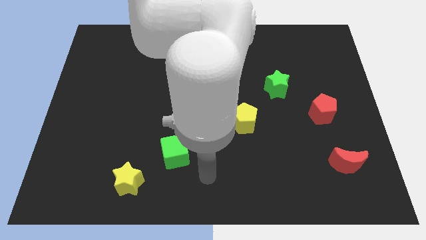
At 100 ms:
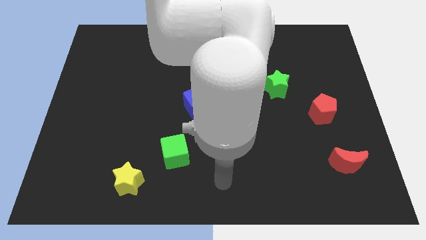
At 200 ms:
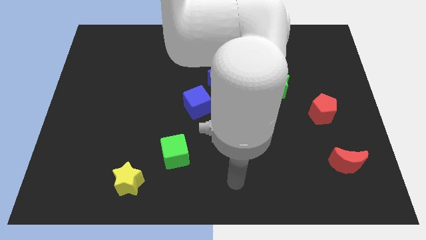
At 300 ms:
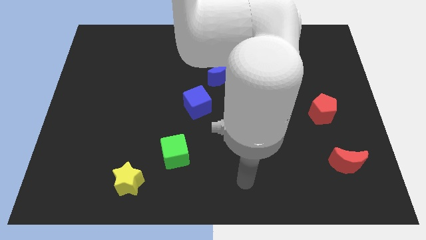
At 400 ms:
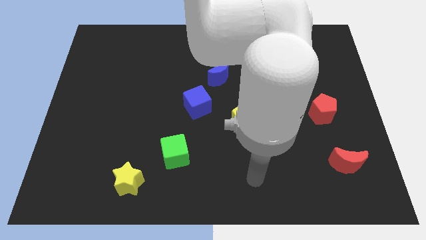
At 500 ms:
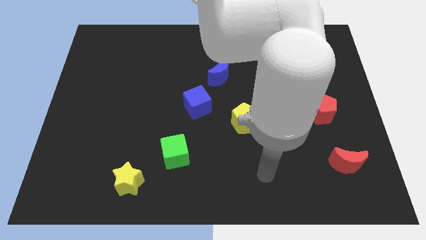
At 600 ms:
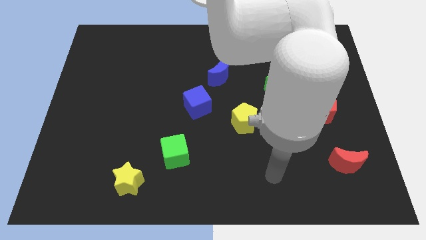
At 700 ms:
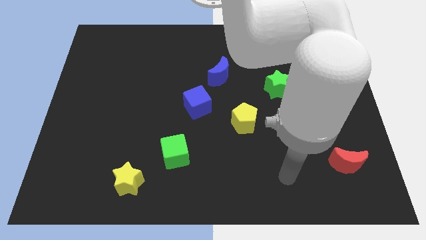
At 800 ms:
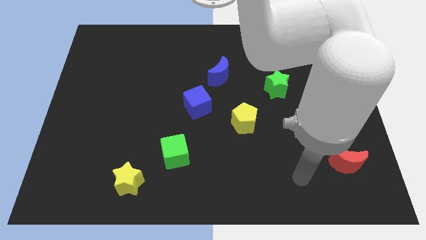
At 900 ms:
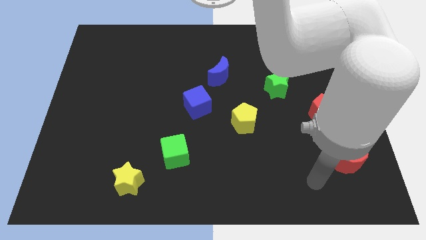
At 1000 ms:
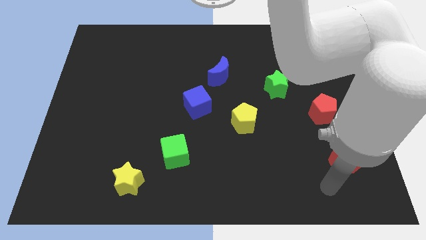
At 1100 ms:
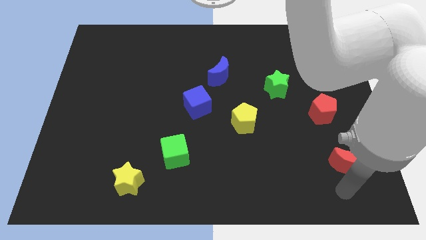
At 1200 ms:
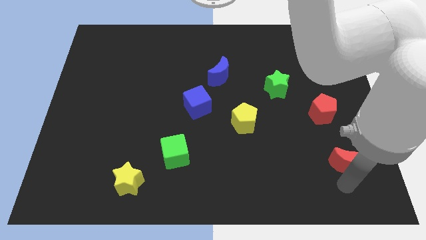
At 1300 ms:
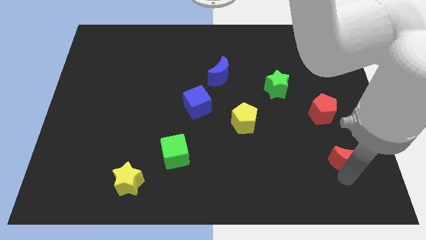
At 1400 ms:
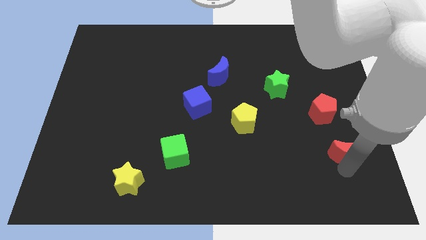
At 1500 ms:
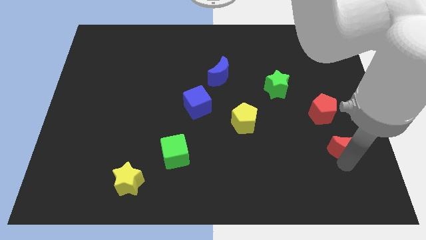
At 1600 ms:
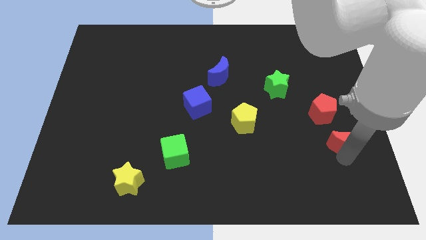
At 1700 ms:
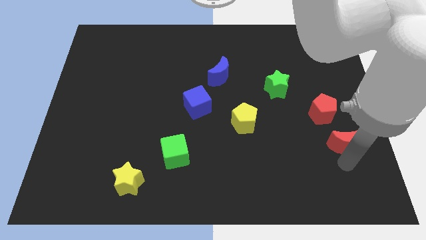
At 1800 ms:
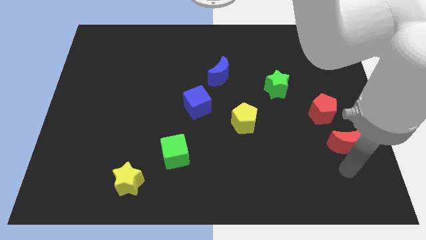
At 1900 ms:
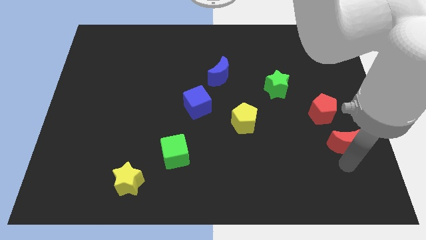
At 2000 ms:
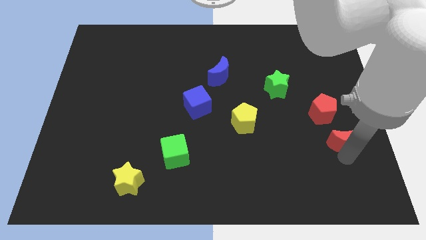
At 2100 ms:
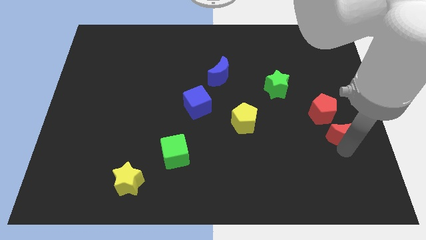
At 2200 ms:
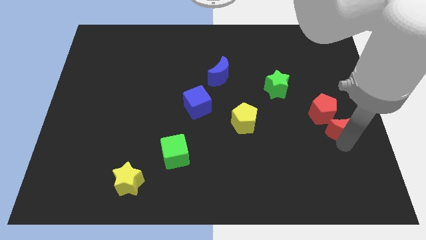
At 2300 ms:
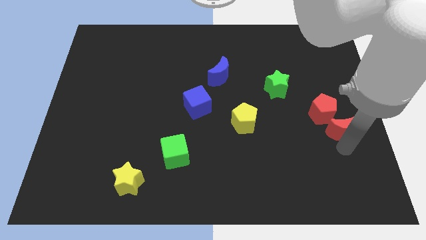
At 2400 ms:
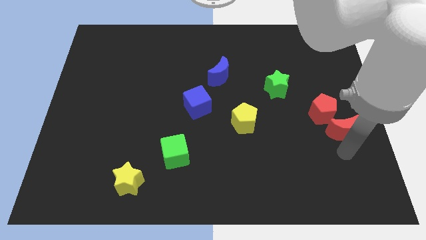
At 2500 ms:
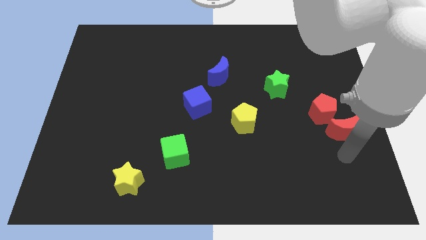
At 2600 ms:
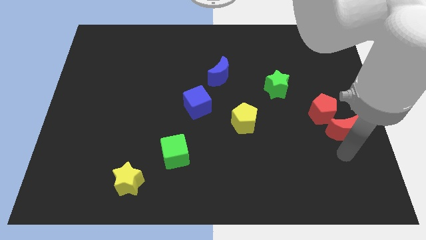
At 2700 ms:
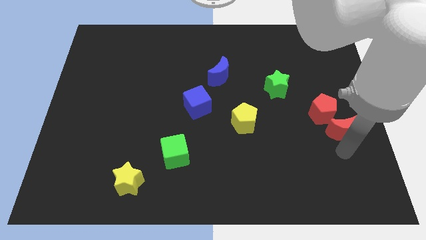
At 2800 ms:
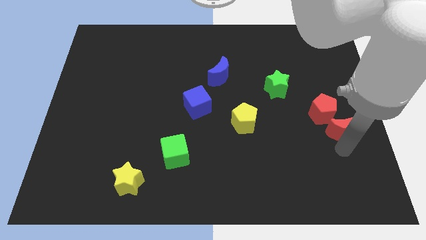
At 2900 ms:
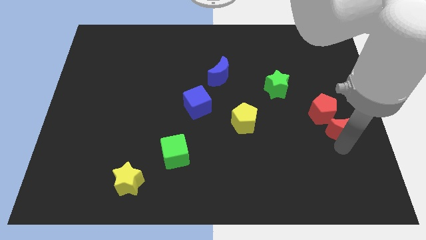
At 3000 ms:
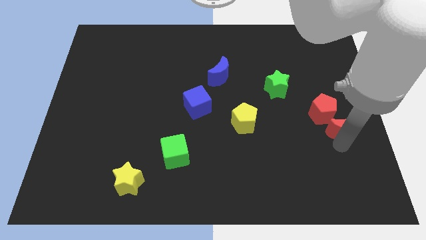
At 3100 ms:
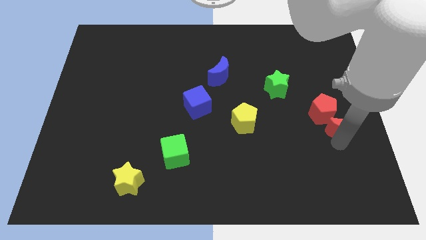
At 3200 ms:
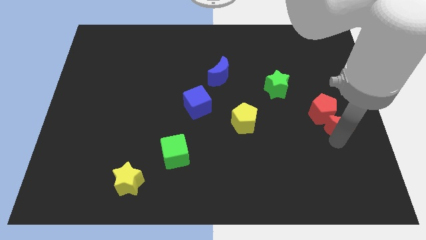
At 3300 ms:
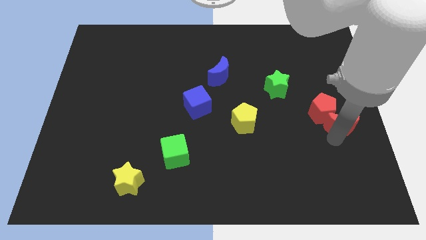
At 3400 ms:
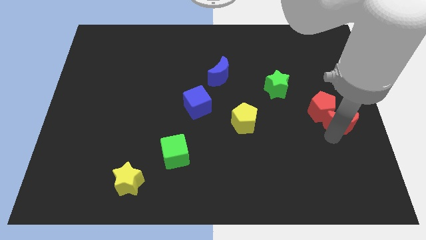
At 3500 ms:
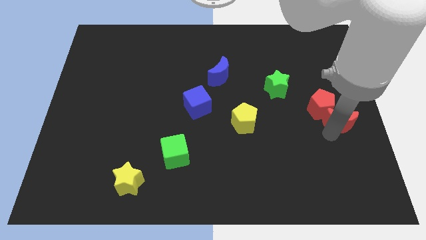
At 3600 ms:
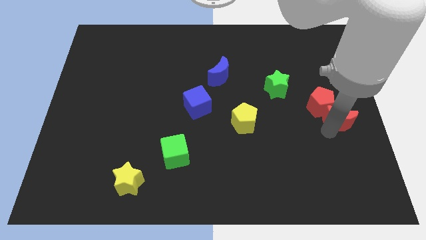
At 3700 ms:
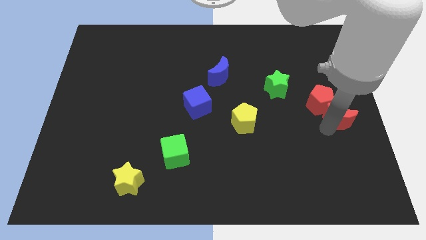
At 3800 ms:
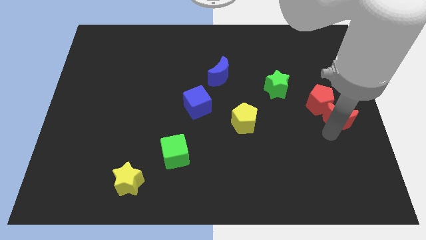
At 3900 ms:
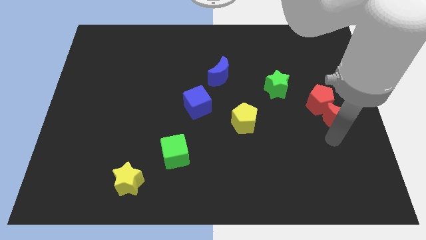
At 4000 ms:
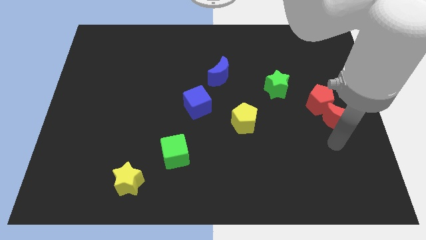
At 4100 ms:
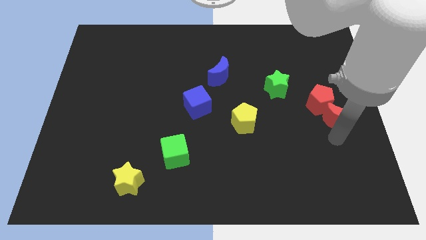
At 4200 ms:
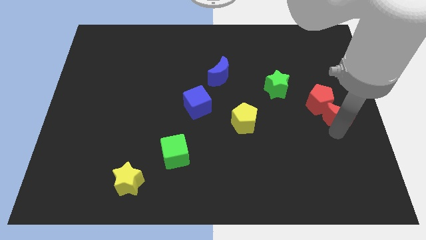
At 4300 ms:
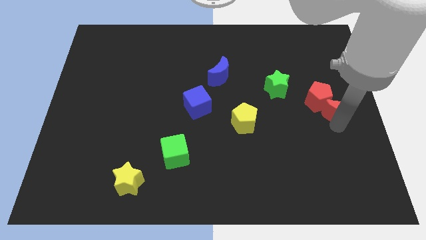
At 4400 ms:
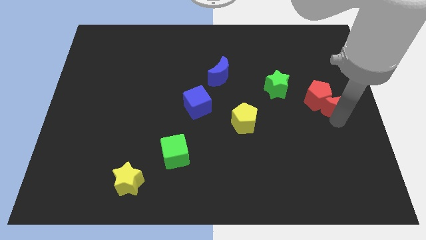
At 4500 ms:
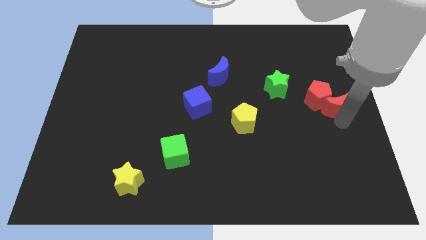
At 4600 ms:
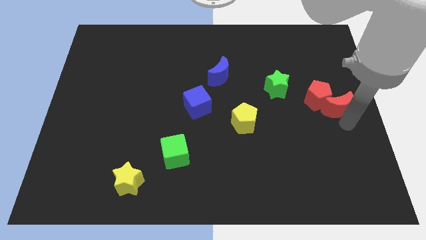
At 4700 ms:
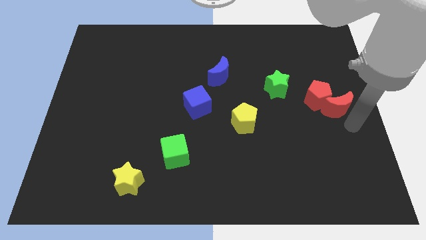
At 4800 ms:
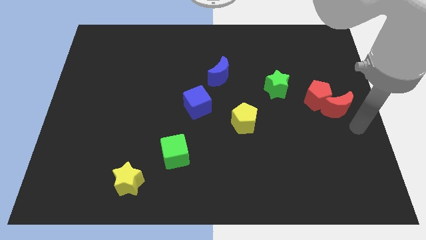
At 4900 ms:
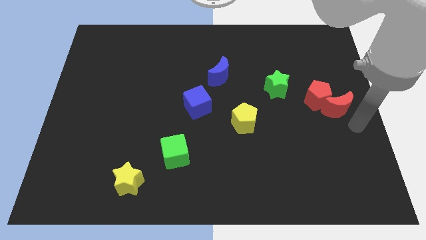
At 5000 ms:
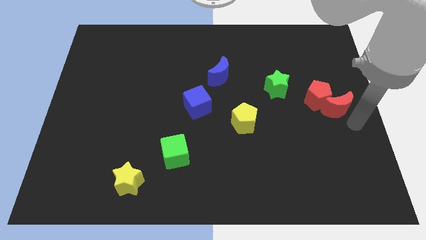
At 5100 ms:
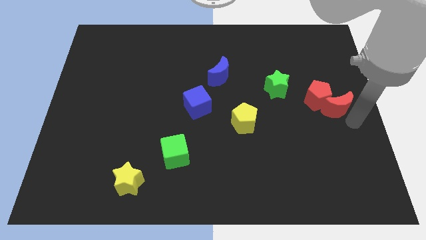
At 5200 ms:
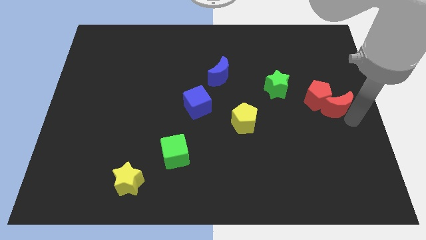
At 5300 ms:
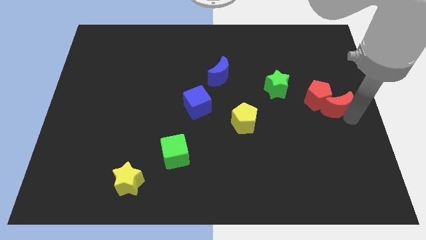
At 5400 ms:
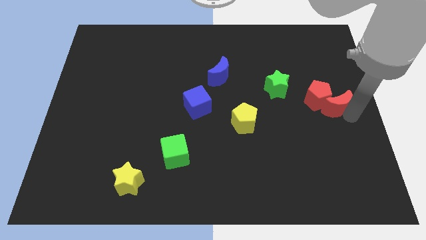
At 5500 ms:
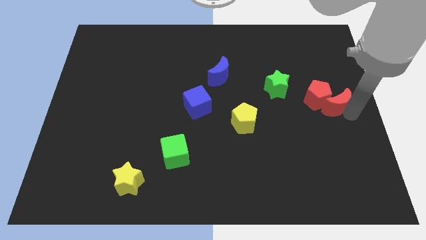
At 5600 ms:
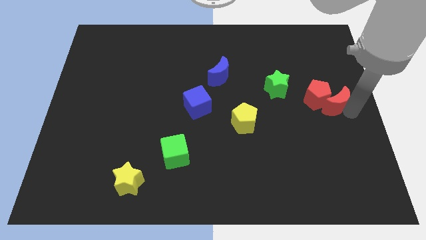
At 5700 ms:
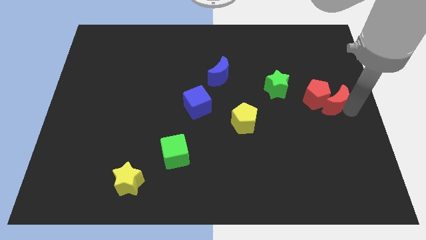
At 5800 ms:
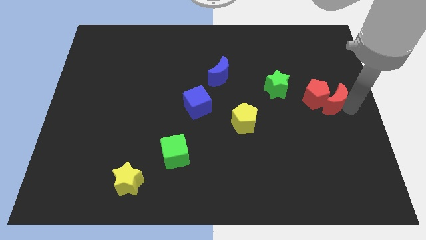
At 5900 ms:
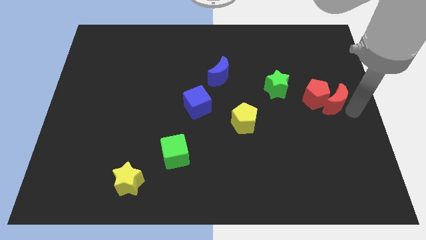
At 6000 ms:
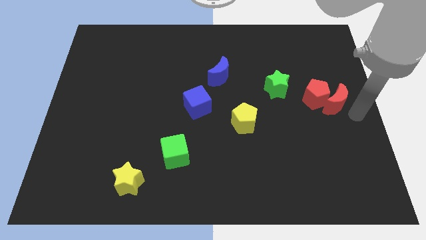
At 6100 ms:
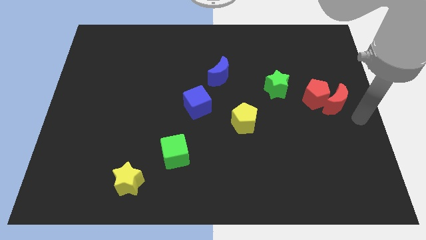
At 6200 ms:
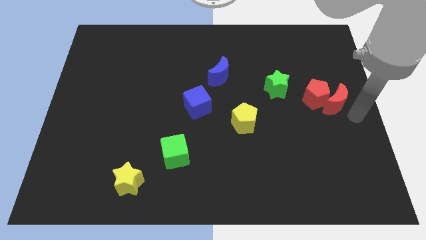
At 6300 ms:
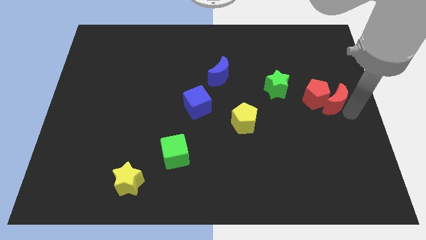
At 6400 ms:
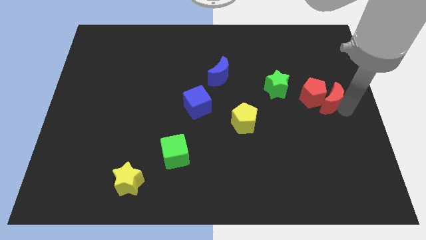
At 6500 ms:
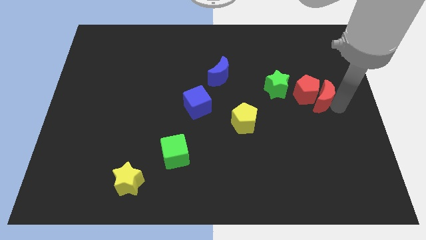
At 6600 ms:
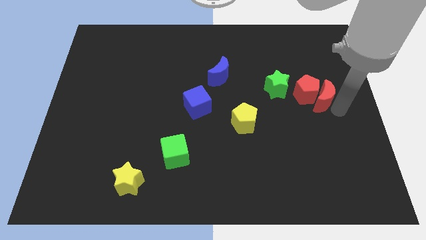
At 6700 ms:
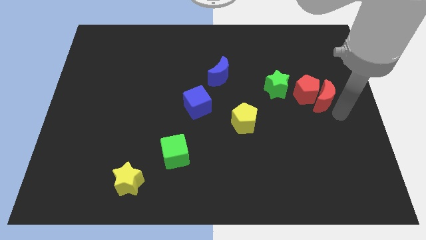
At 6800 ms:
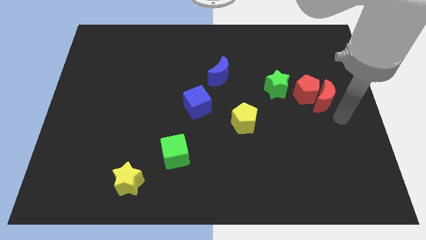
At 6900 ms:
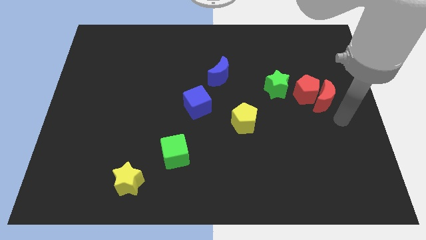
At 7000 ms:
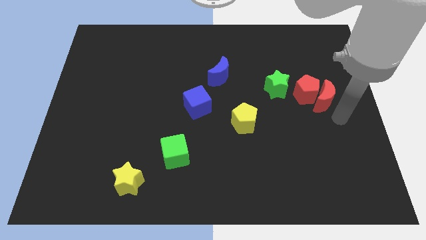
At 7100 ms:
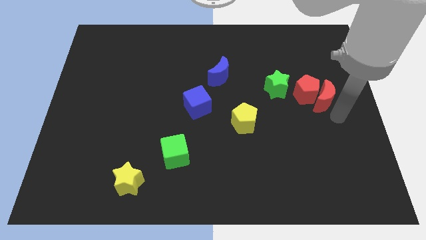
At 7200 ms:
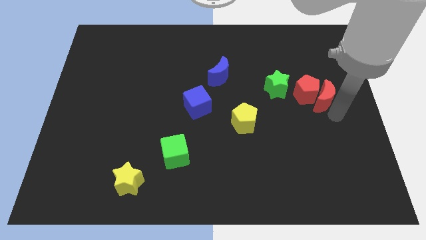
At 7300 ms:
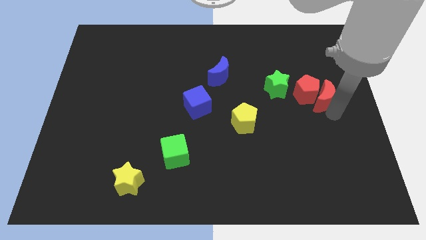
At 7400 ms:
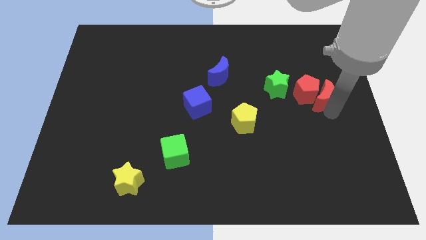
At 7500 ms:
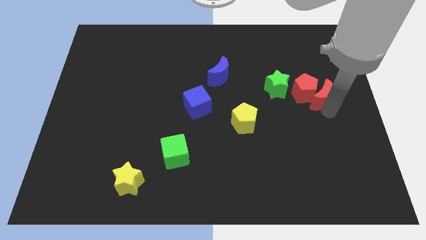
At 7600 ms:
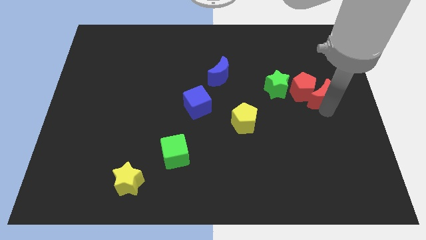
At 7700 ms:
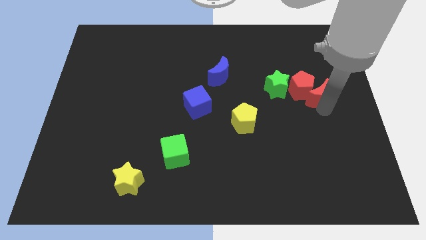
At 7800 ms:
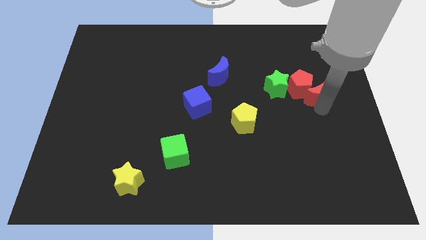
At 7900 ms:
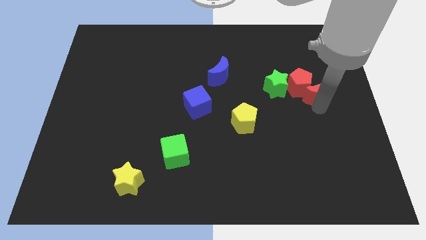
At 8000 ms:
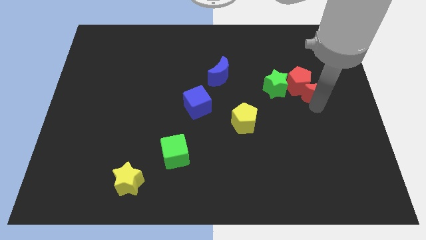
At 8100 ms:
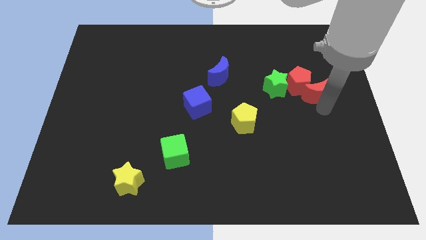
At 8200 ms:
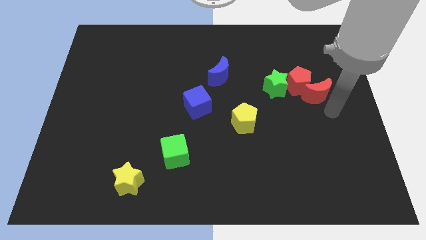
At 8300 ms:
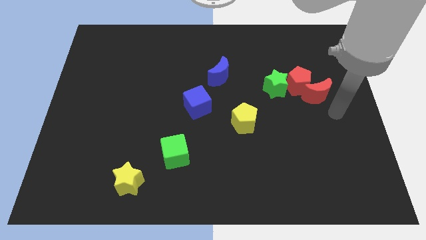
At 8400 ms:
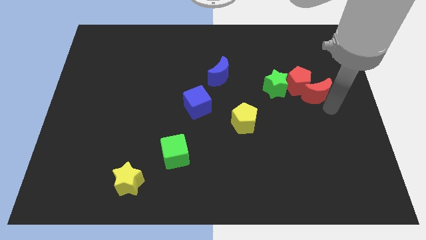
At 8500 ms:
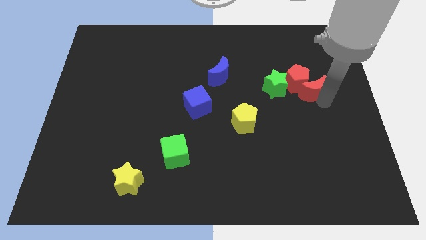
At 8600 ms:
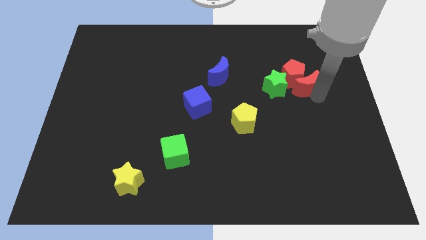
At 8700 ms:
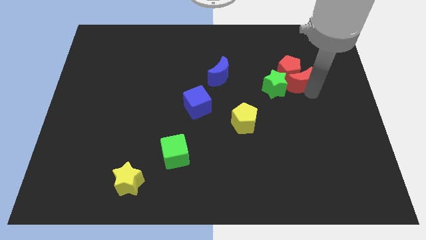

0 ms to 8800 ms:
move the red moon to the top right of the green star
